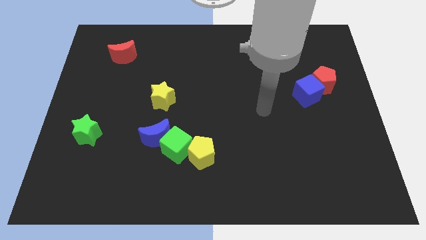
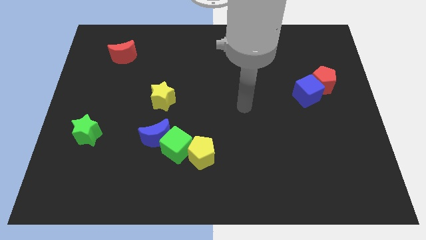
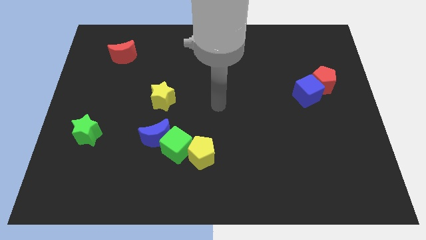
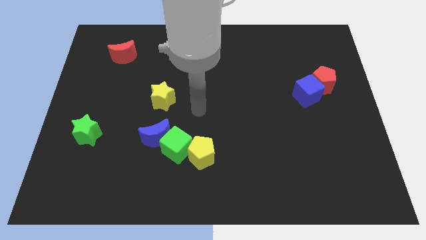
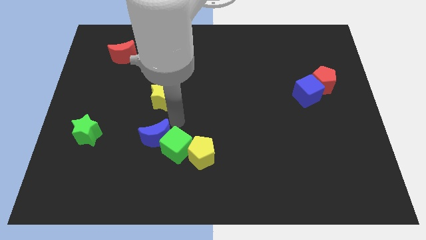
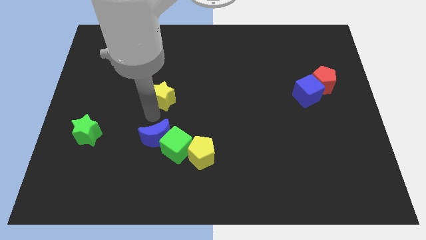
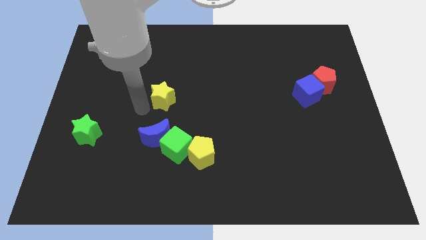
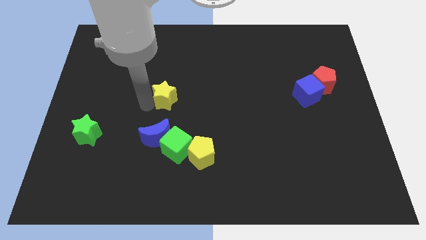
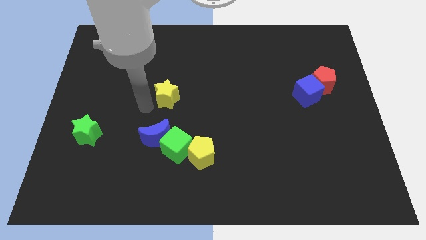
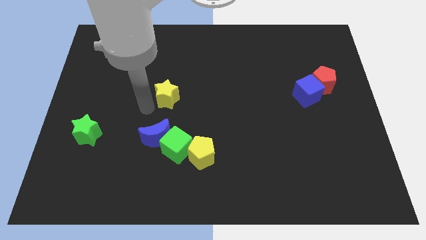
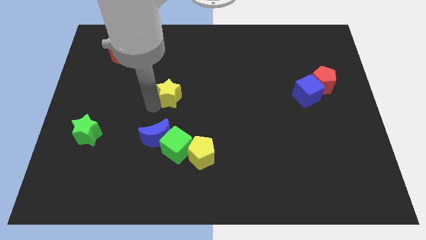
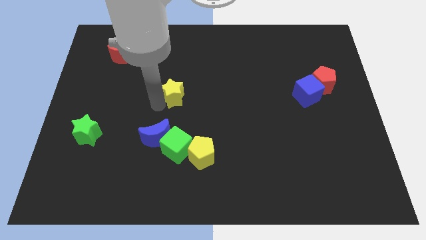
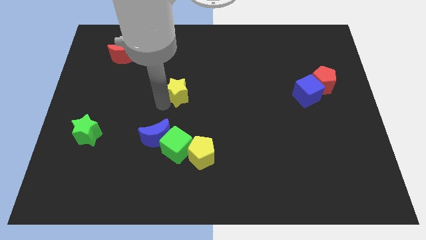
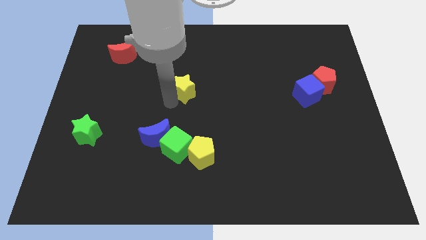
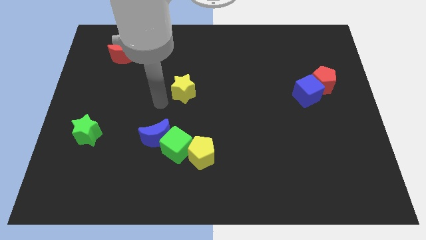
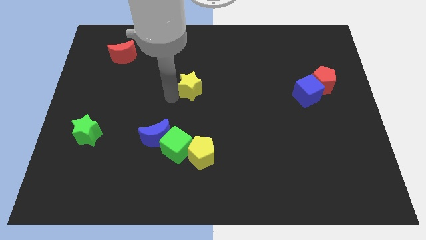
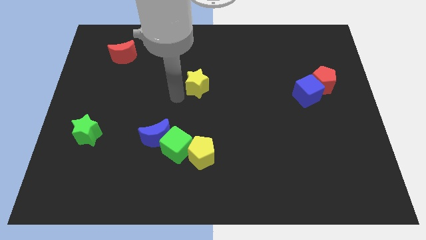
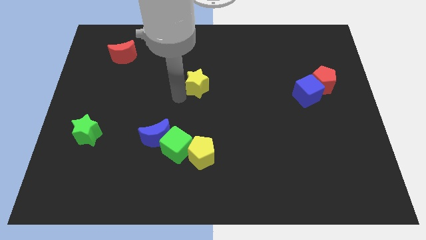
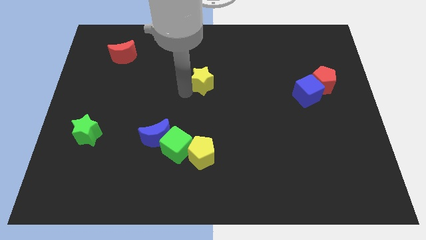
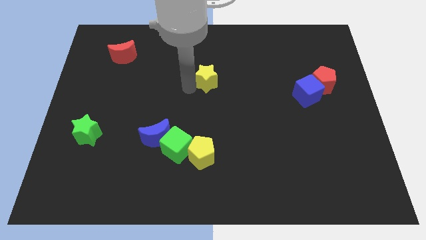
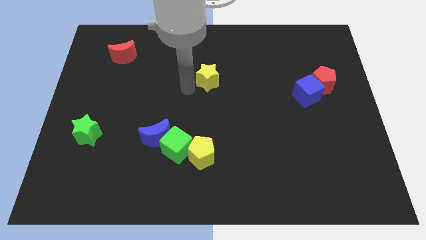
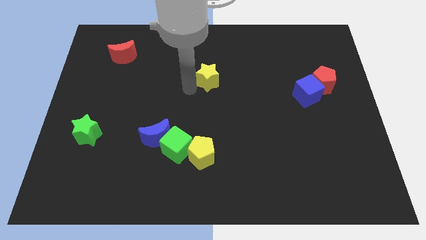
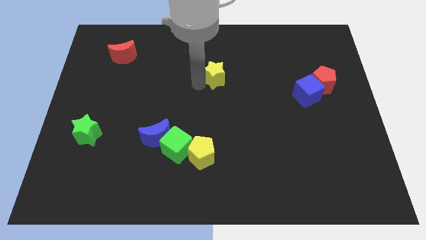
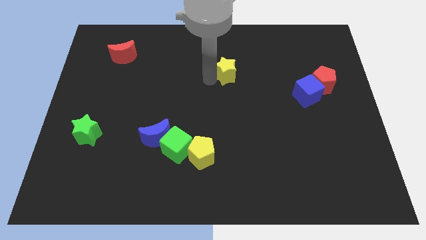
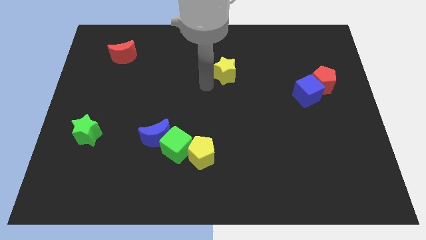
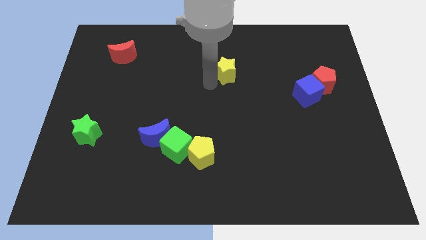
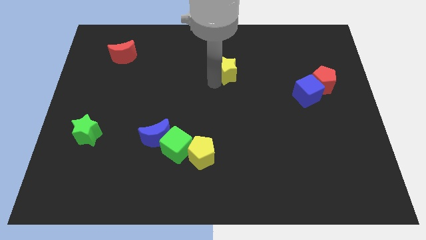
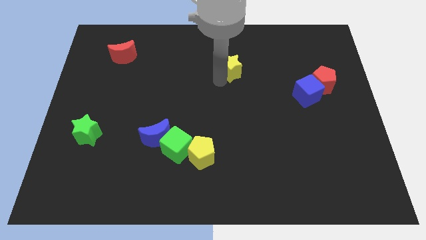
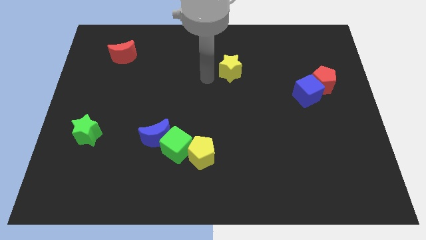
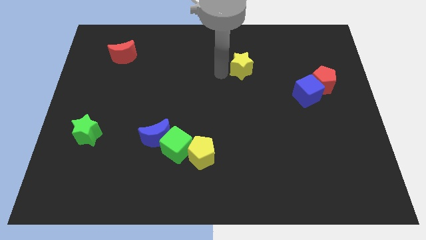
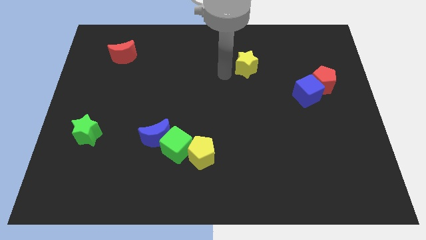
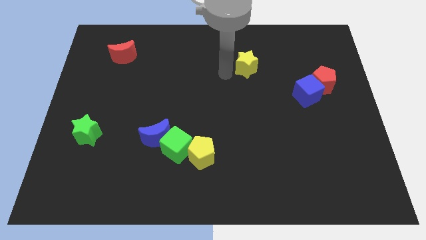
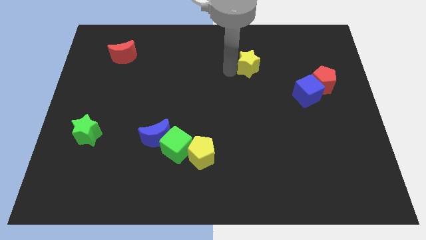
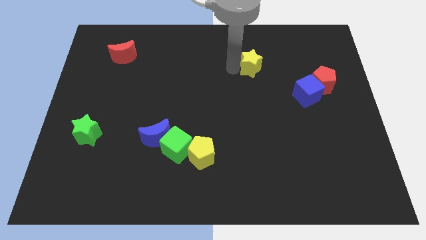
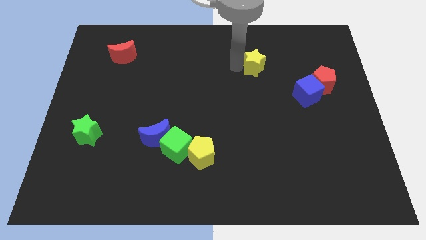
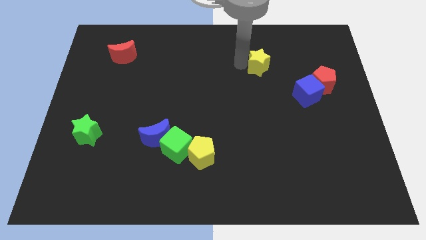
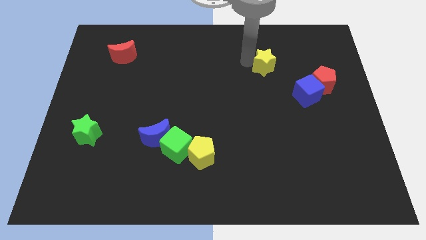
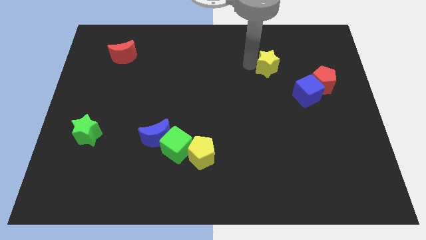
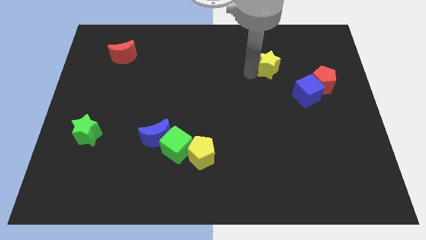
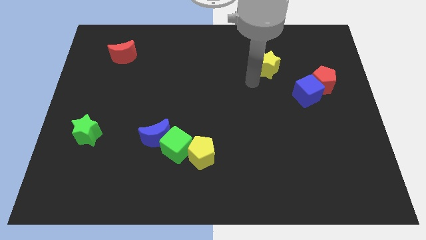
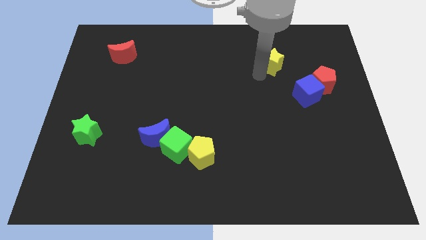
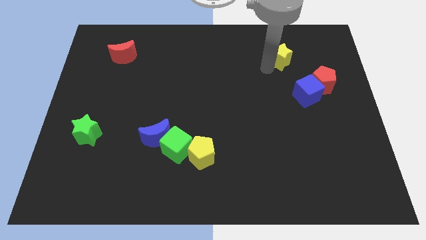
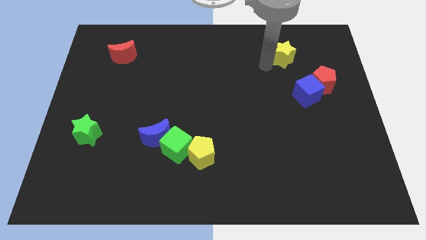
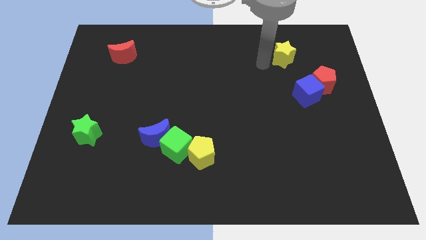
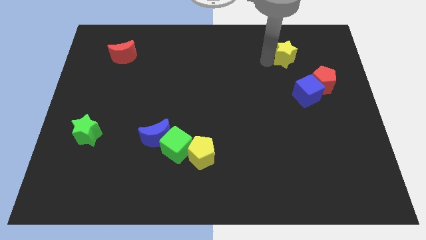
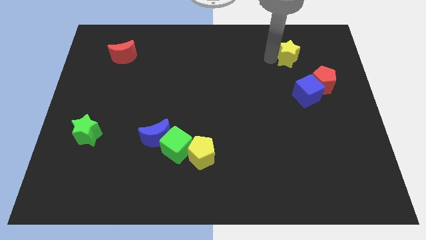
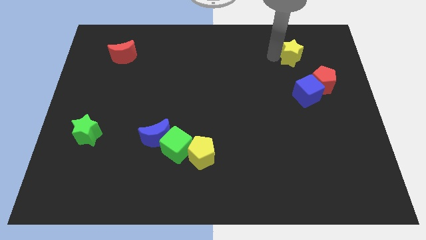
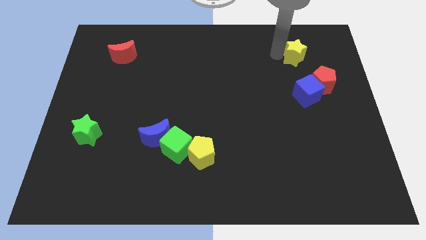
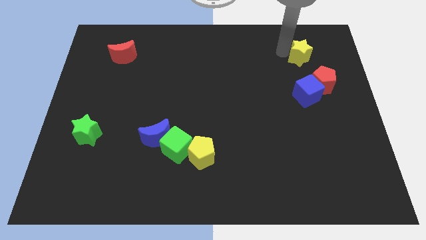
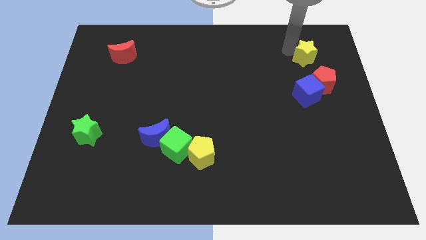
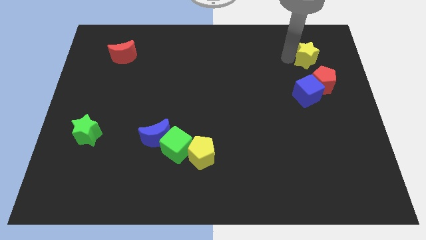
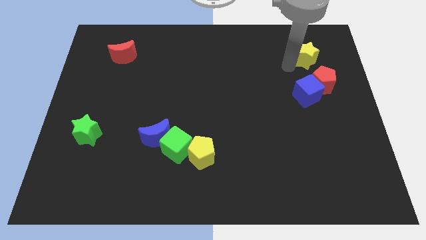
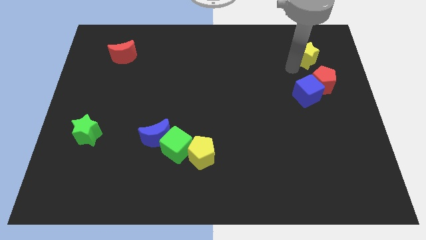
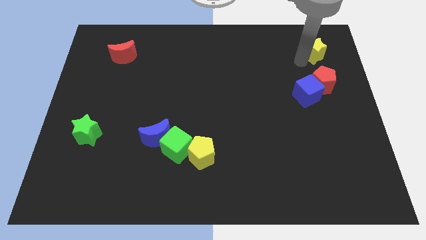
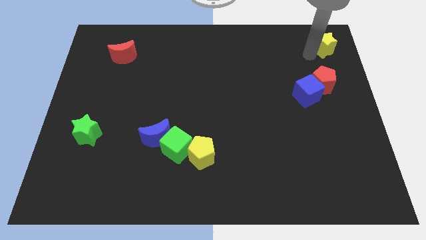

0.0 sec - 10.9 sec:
slide the yellow star to the top right

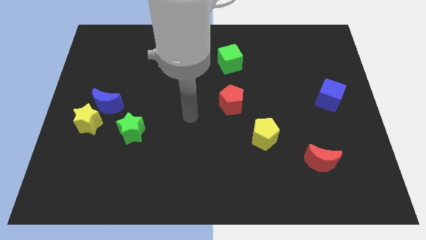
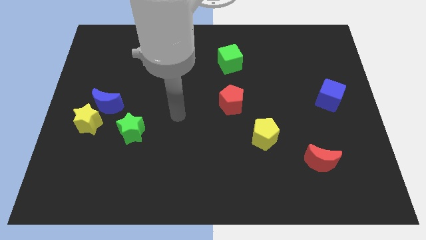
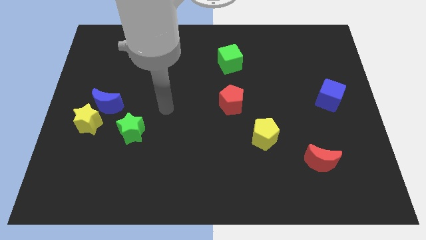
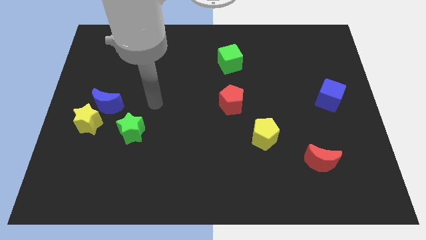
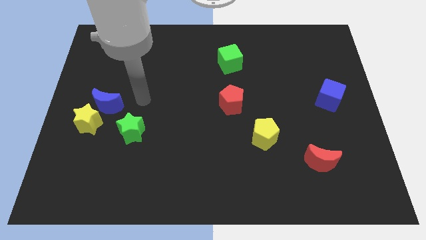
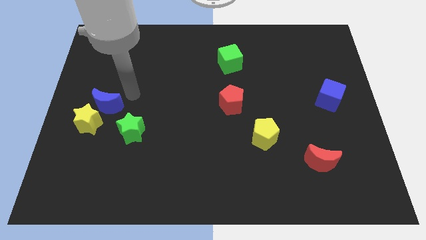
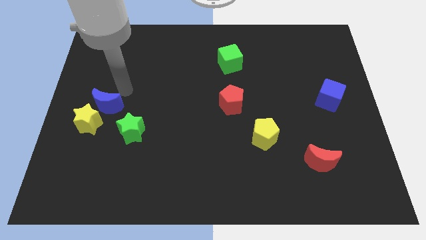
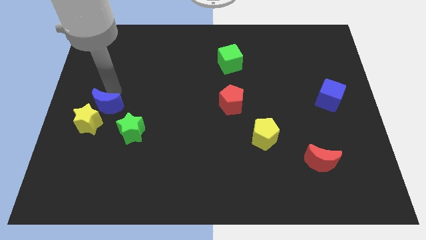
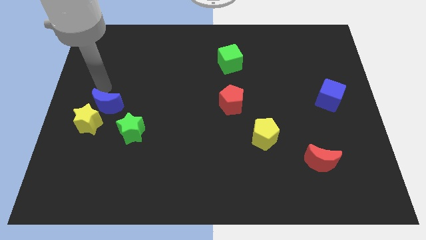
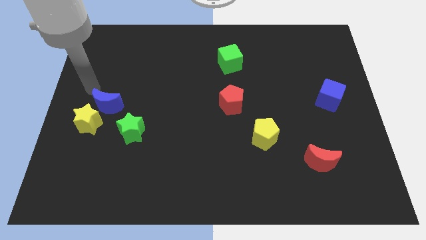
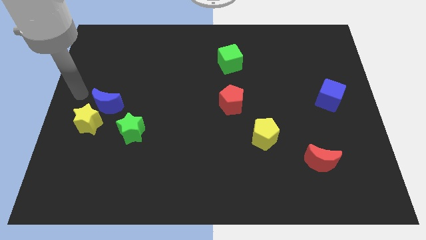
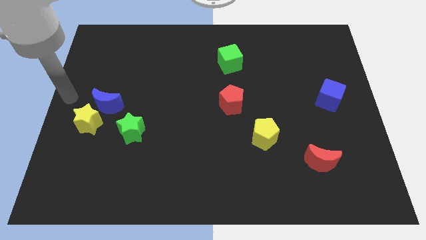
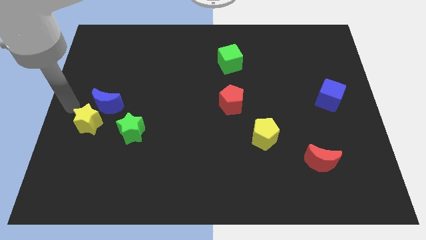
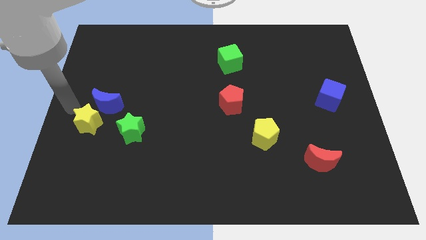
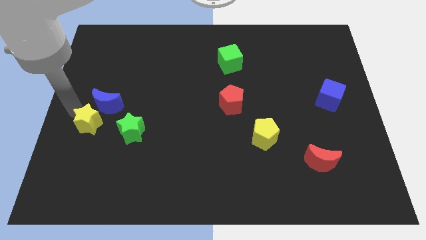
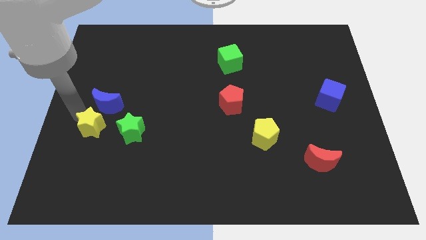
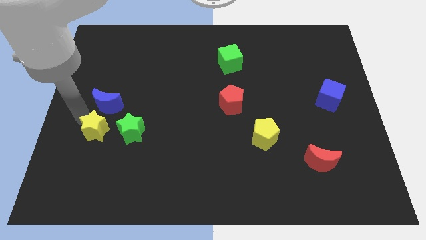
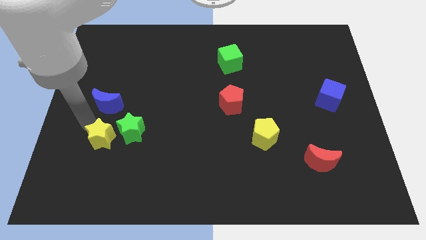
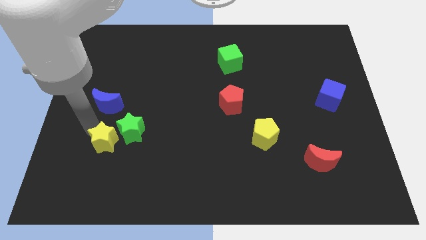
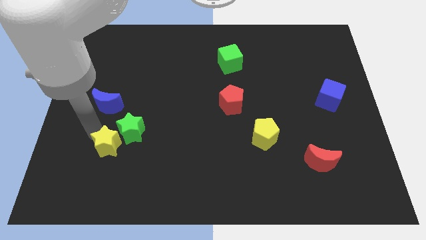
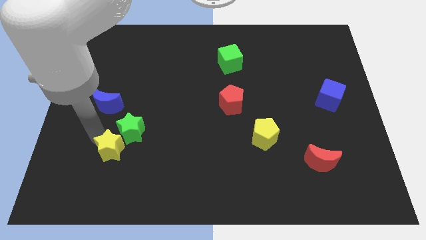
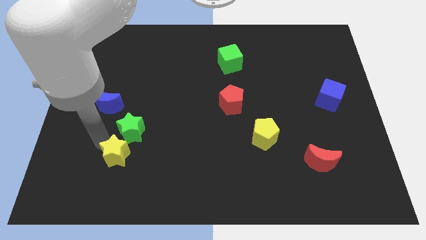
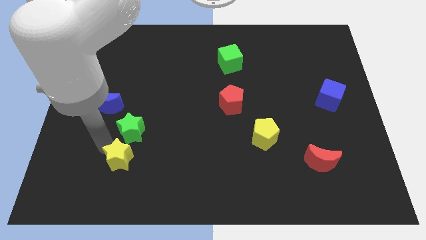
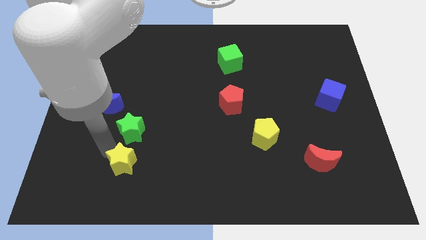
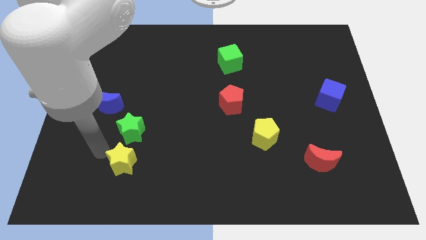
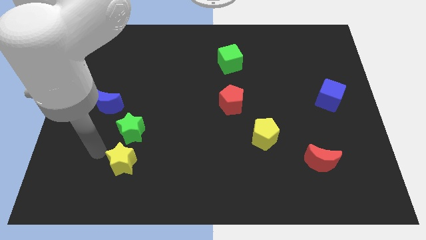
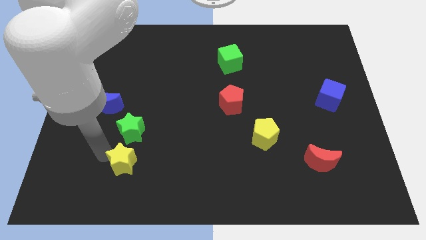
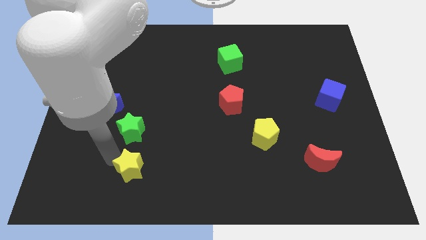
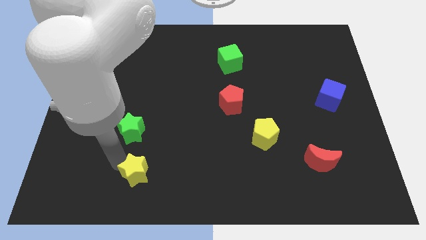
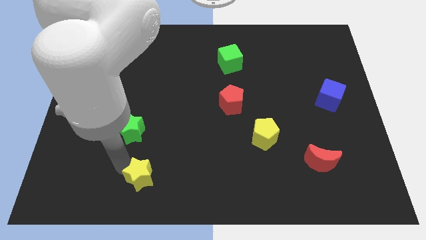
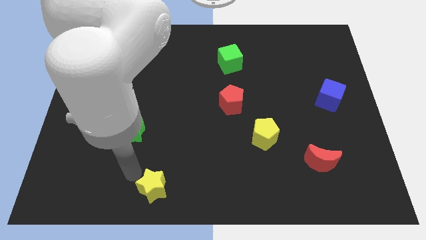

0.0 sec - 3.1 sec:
slide the yellow star to the bottom side
